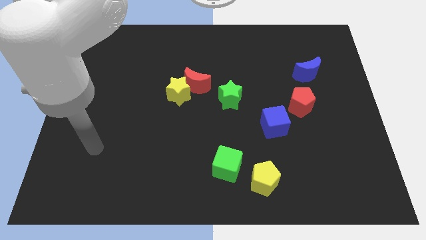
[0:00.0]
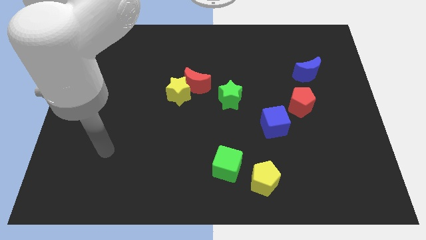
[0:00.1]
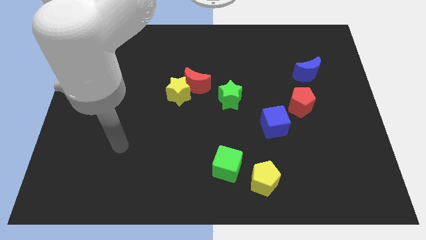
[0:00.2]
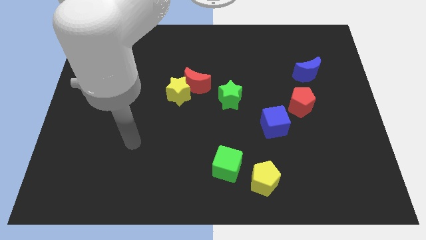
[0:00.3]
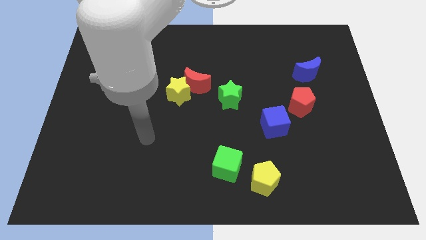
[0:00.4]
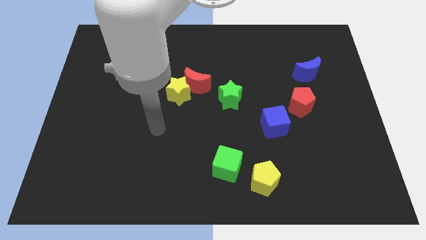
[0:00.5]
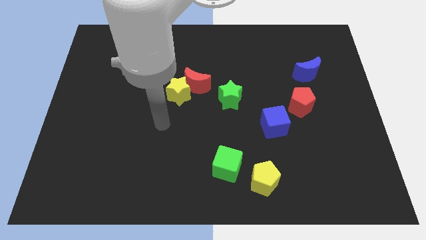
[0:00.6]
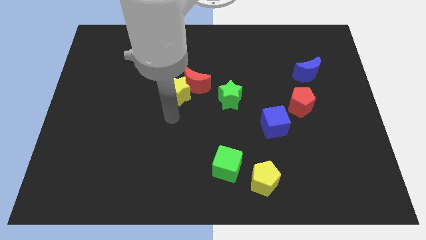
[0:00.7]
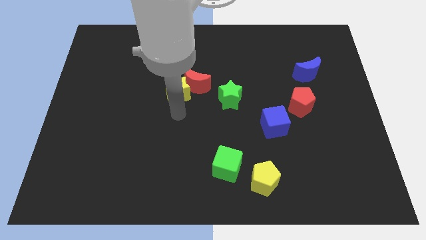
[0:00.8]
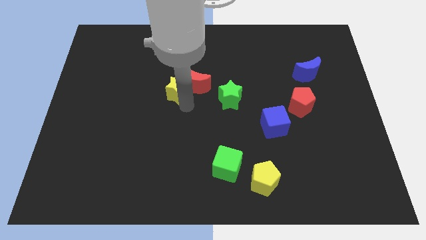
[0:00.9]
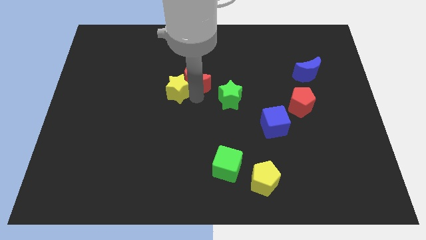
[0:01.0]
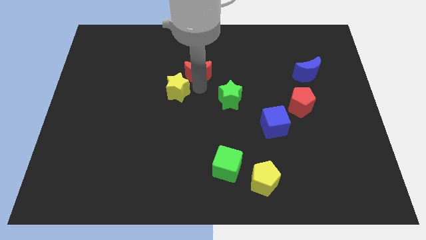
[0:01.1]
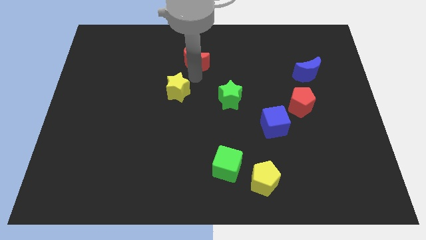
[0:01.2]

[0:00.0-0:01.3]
separate the yellow star from the red moon

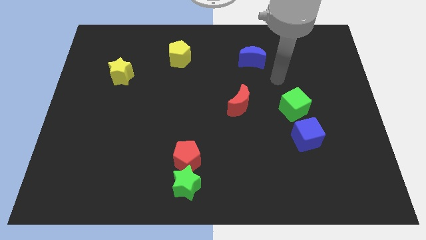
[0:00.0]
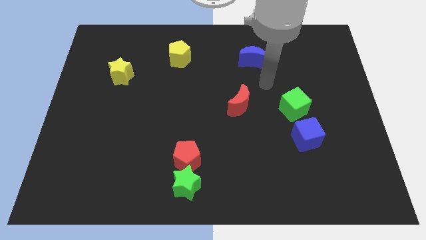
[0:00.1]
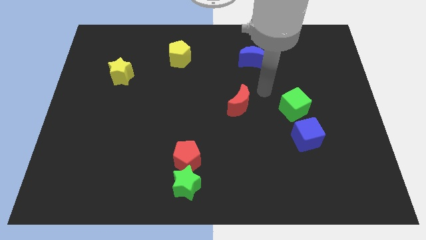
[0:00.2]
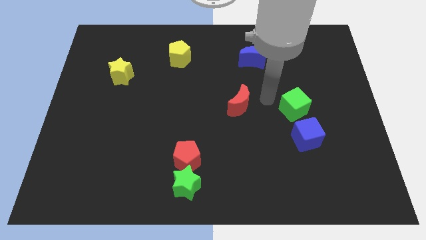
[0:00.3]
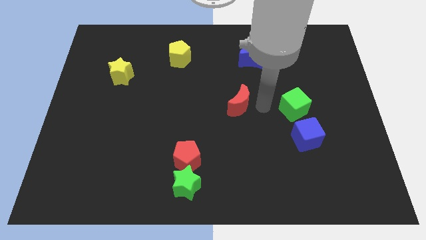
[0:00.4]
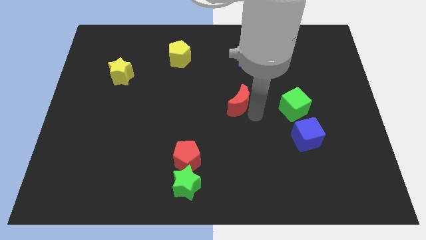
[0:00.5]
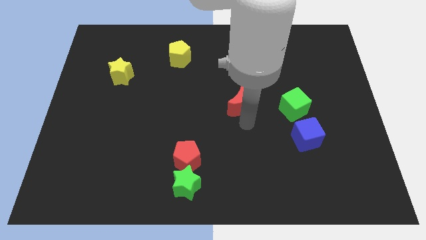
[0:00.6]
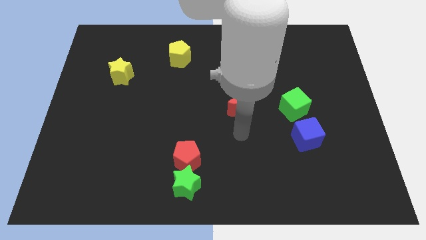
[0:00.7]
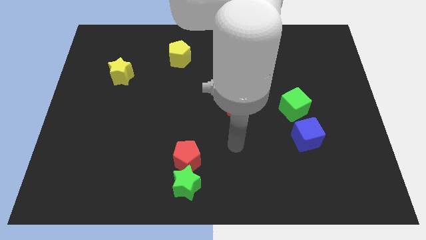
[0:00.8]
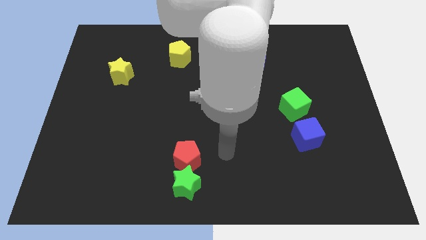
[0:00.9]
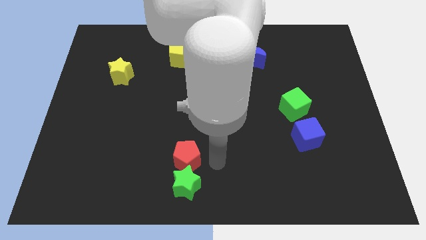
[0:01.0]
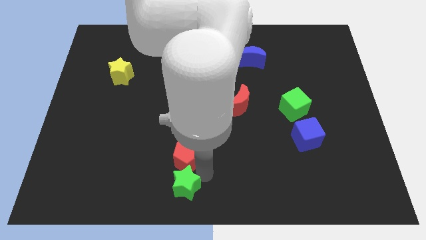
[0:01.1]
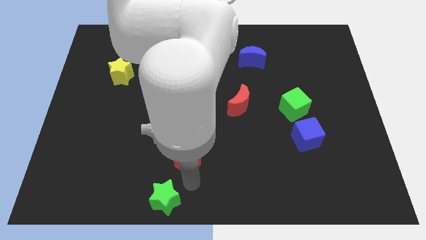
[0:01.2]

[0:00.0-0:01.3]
move the red pentagon away from the green star

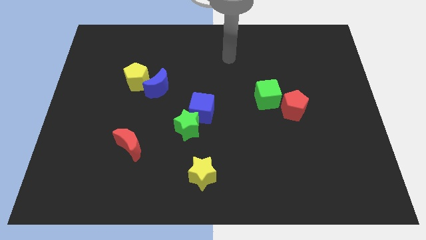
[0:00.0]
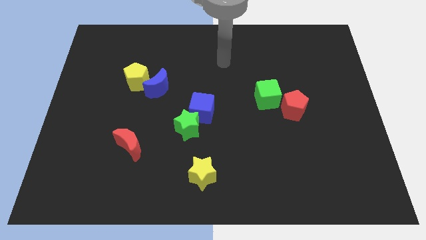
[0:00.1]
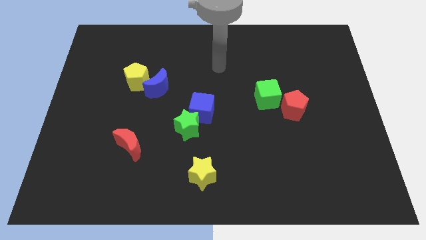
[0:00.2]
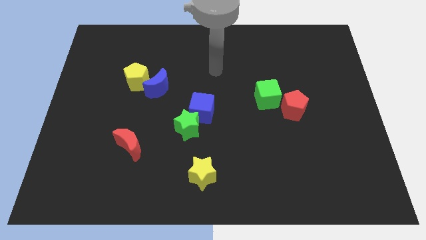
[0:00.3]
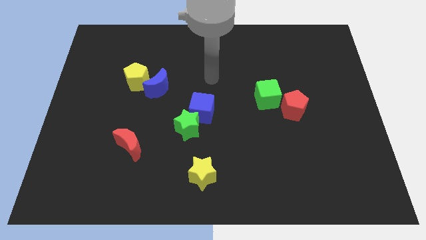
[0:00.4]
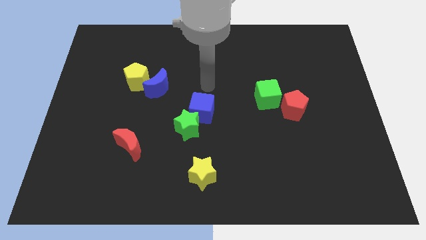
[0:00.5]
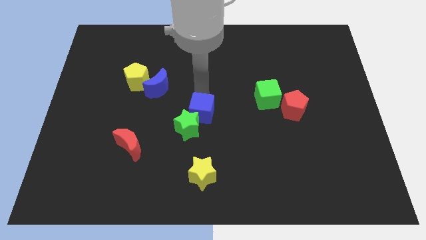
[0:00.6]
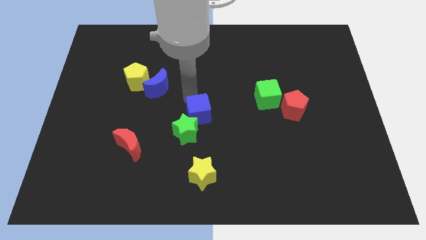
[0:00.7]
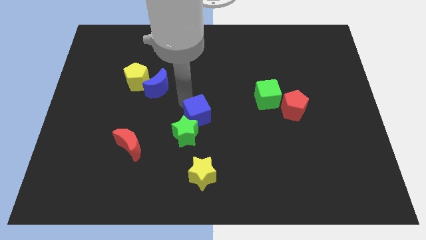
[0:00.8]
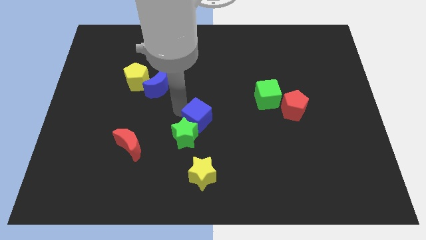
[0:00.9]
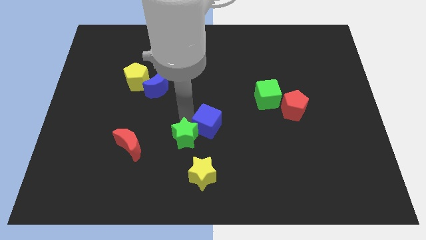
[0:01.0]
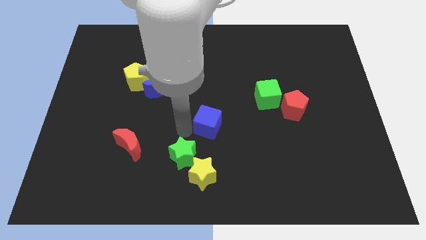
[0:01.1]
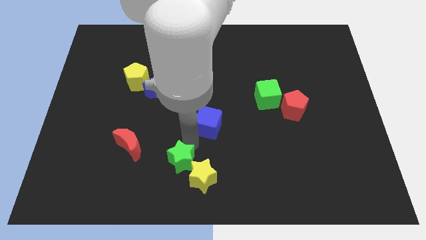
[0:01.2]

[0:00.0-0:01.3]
pull the blue cube apart from the green star

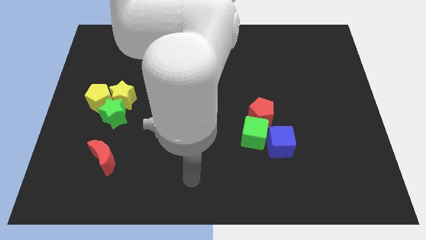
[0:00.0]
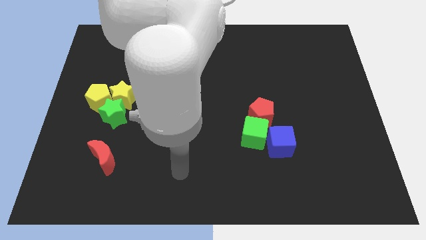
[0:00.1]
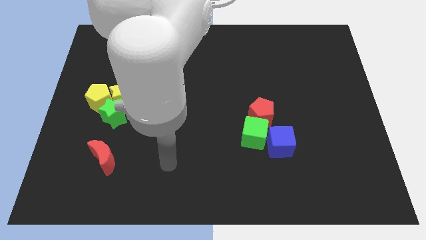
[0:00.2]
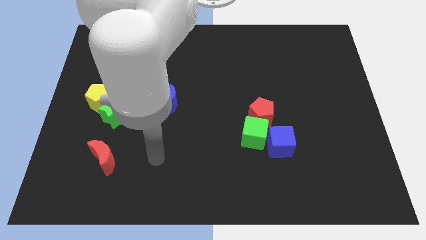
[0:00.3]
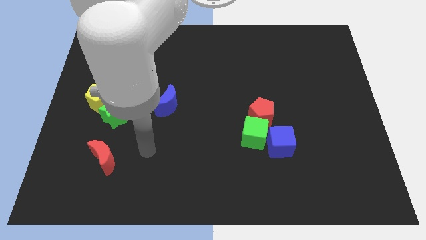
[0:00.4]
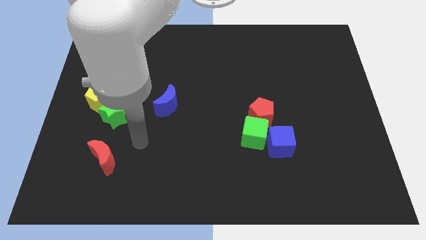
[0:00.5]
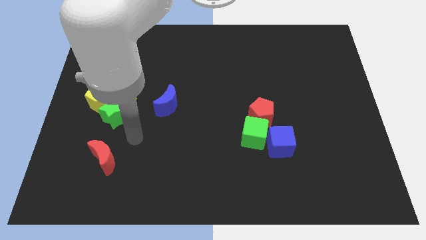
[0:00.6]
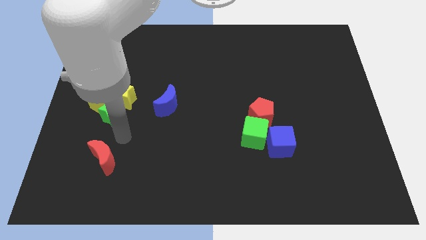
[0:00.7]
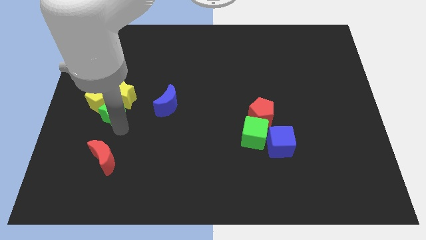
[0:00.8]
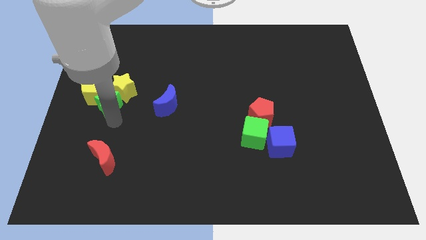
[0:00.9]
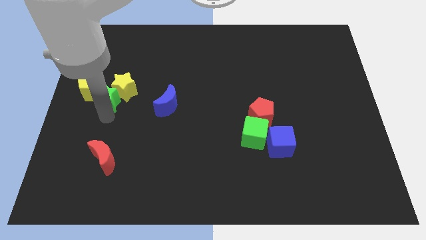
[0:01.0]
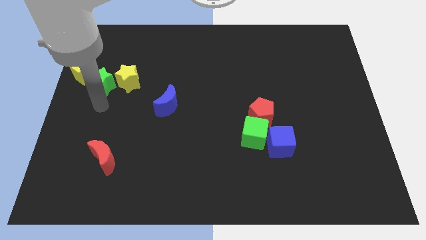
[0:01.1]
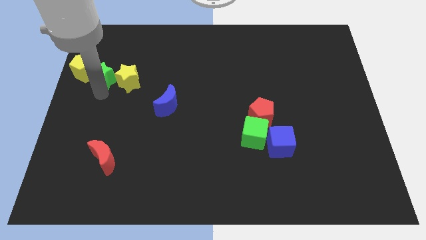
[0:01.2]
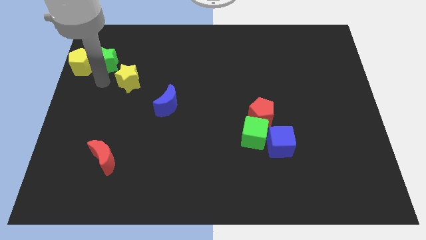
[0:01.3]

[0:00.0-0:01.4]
separate the yellow star from the green star and yellow pentagon

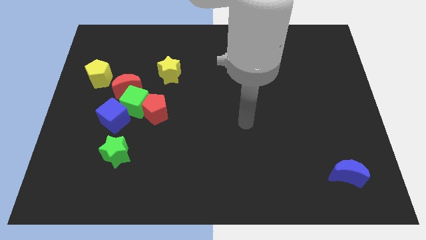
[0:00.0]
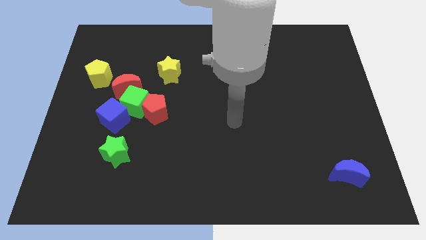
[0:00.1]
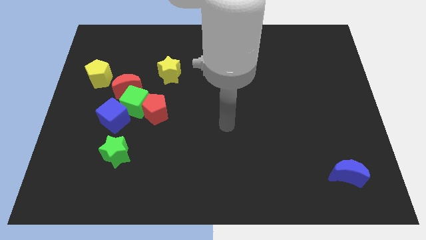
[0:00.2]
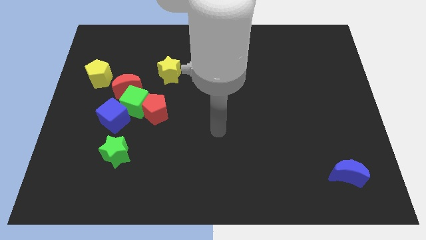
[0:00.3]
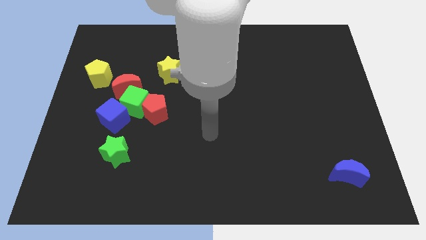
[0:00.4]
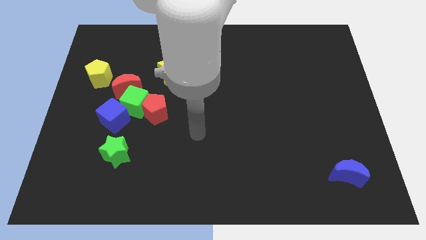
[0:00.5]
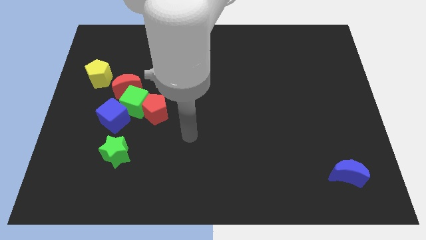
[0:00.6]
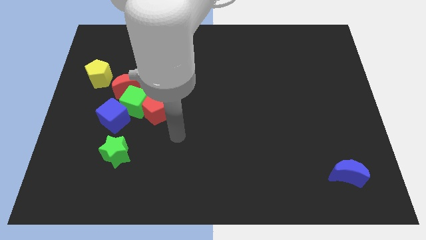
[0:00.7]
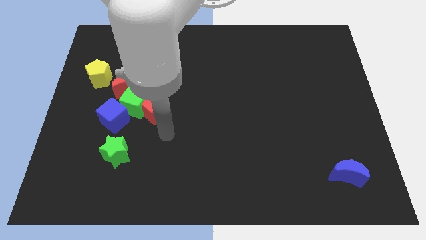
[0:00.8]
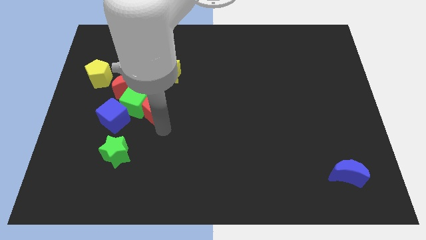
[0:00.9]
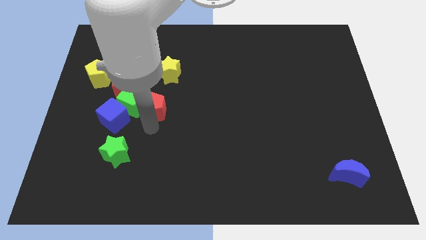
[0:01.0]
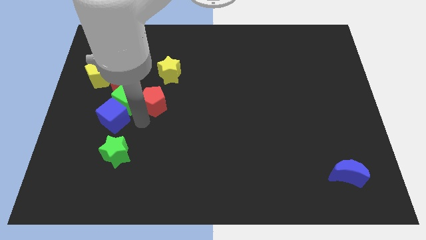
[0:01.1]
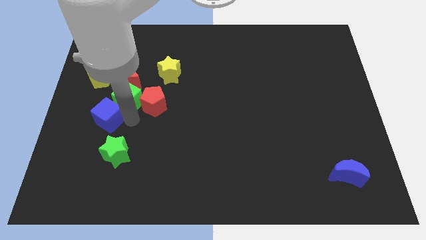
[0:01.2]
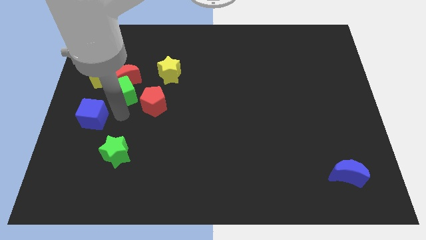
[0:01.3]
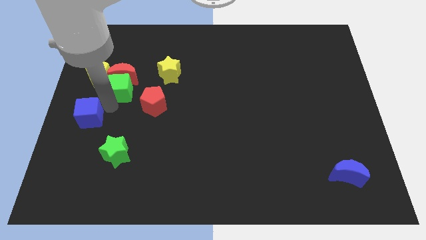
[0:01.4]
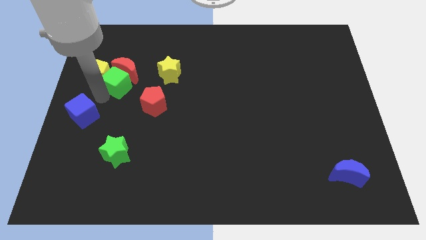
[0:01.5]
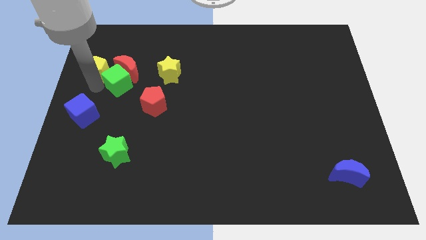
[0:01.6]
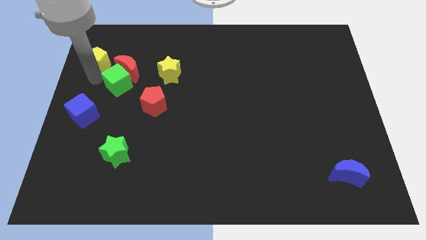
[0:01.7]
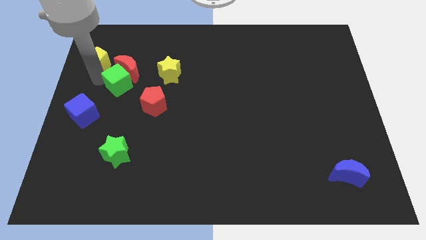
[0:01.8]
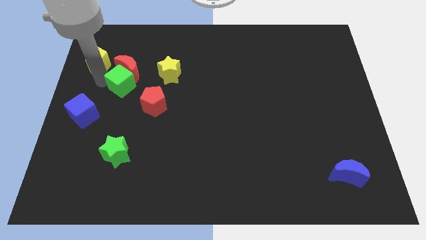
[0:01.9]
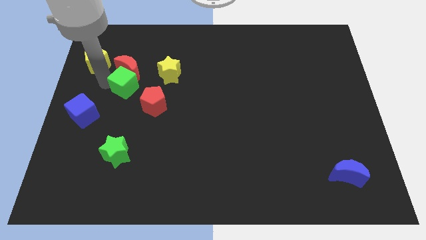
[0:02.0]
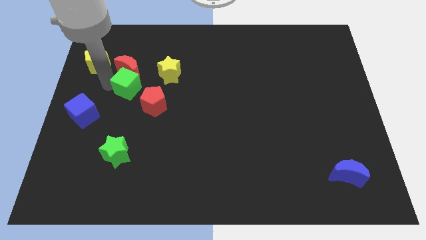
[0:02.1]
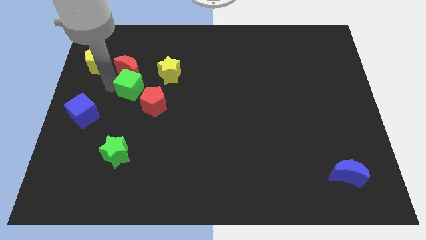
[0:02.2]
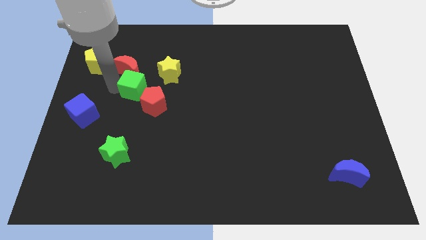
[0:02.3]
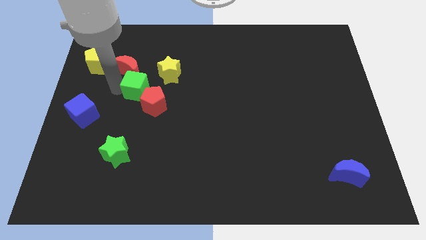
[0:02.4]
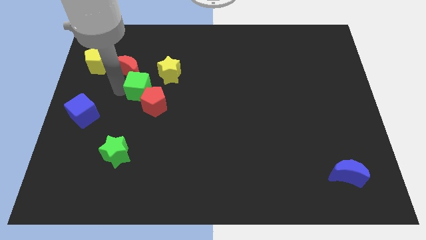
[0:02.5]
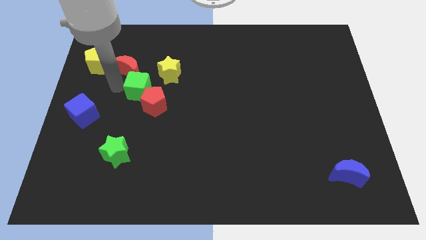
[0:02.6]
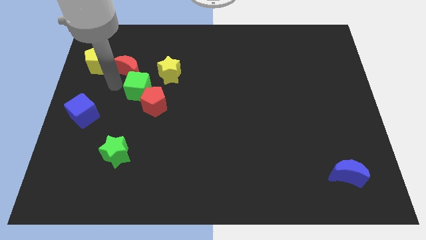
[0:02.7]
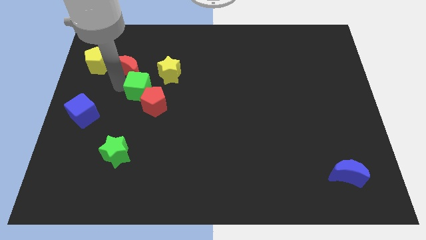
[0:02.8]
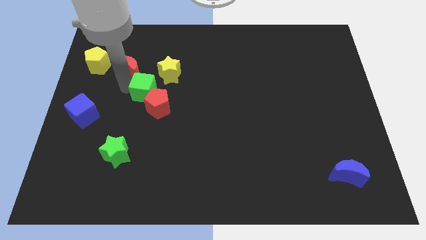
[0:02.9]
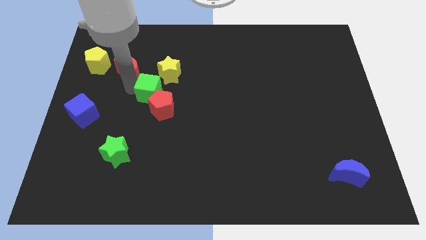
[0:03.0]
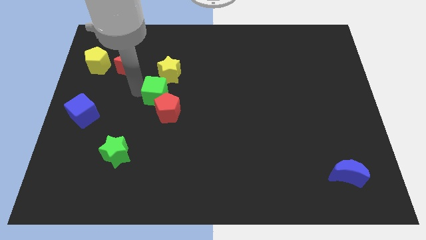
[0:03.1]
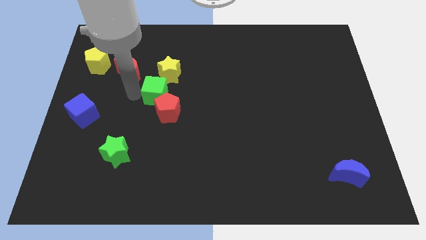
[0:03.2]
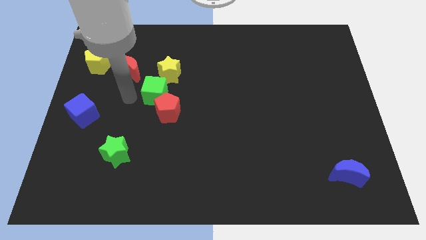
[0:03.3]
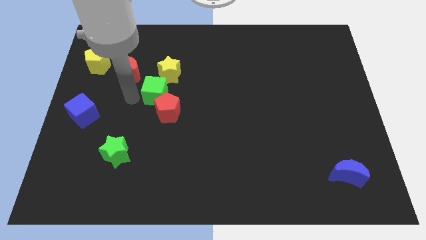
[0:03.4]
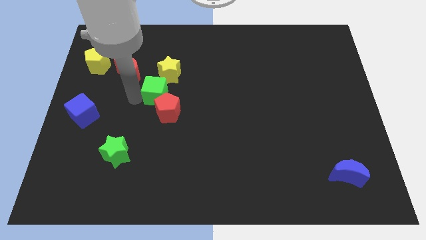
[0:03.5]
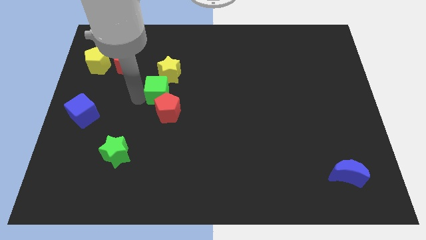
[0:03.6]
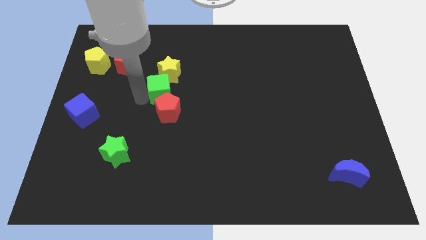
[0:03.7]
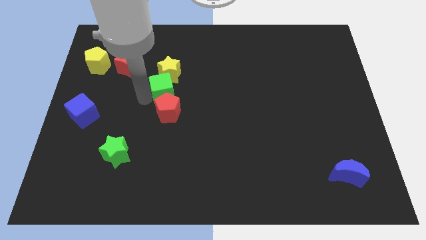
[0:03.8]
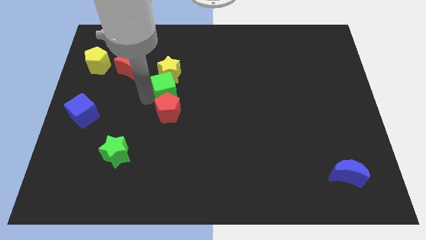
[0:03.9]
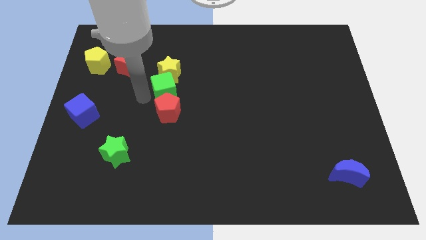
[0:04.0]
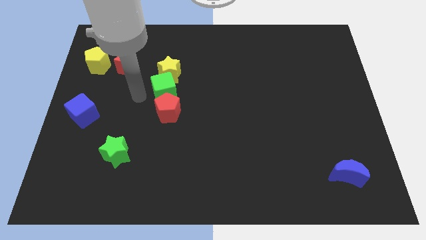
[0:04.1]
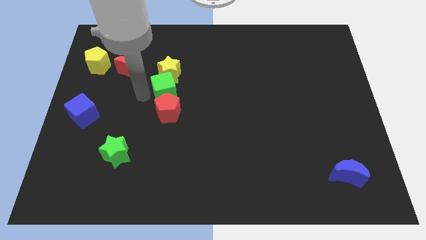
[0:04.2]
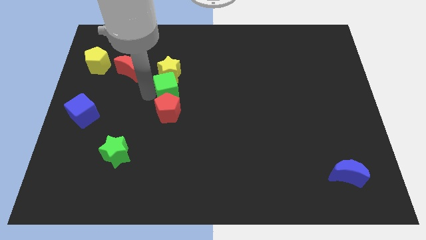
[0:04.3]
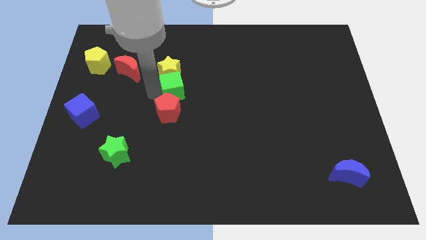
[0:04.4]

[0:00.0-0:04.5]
move the green cube away from the group
